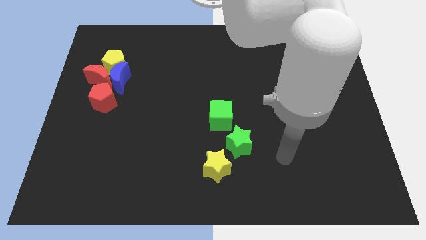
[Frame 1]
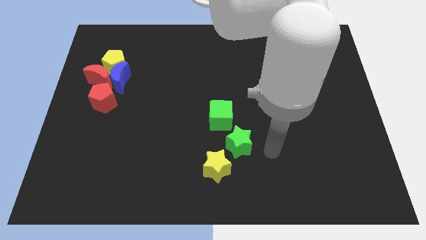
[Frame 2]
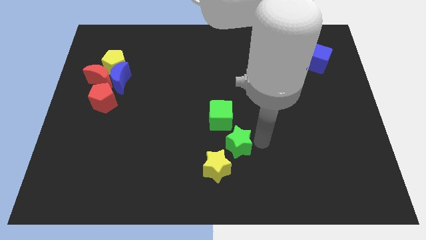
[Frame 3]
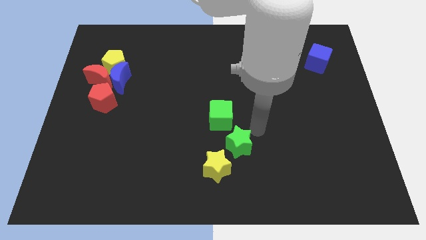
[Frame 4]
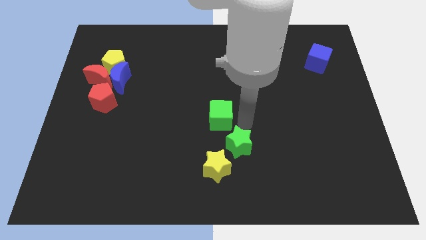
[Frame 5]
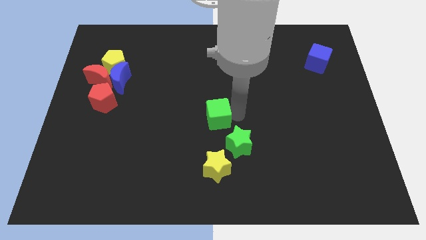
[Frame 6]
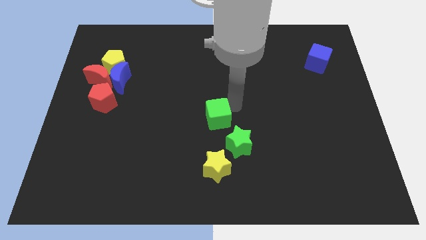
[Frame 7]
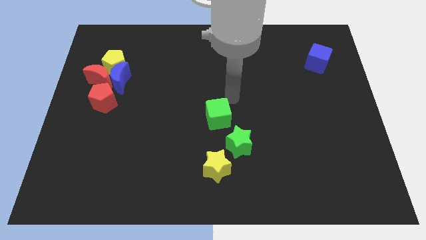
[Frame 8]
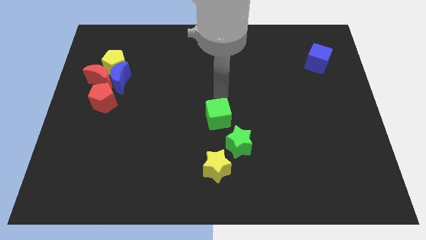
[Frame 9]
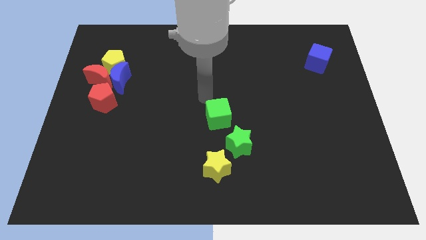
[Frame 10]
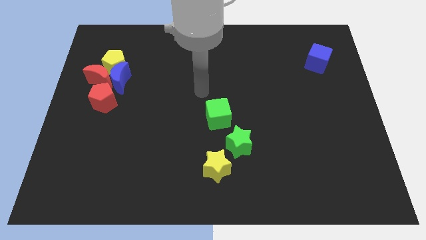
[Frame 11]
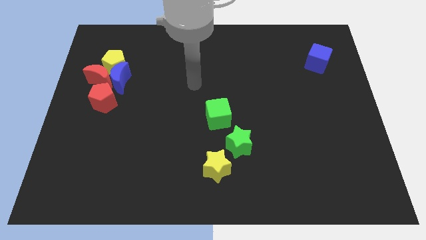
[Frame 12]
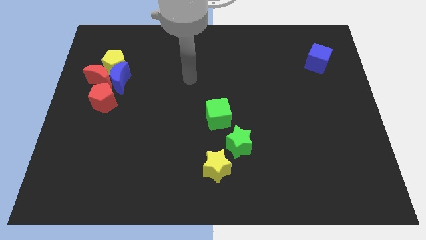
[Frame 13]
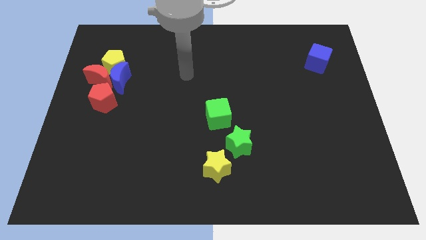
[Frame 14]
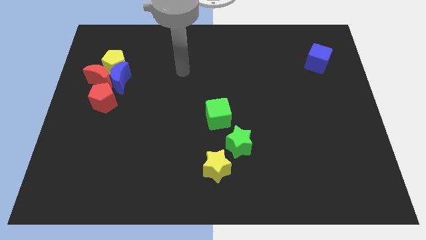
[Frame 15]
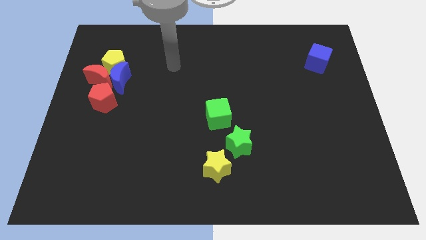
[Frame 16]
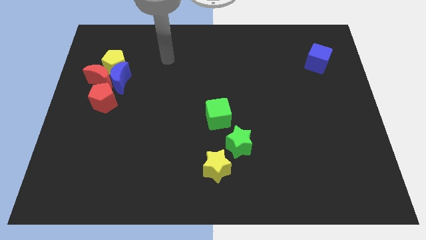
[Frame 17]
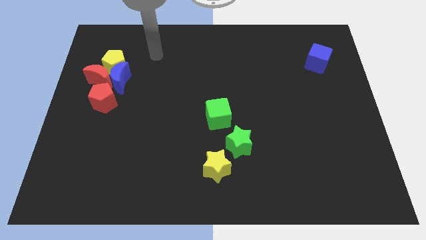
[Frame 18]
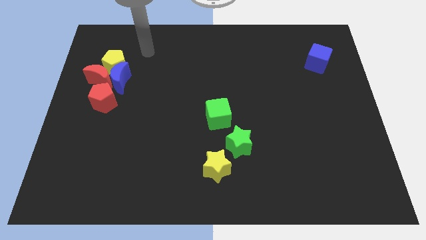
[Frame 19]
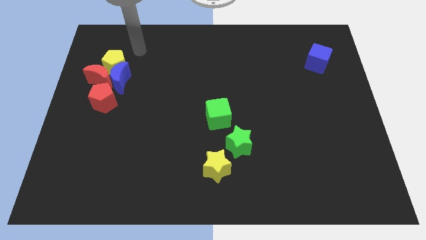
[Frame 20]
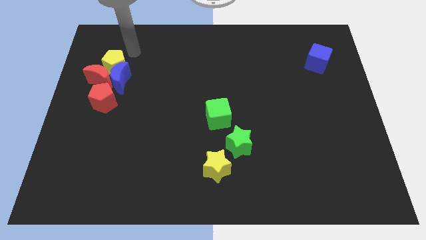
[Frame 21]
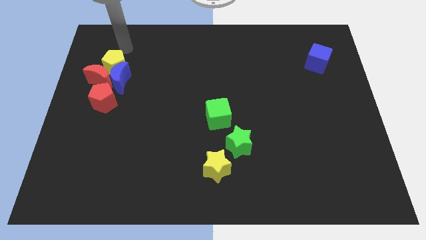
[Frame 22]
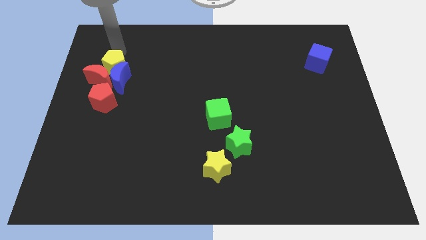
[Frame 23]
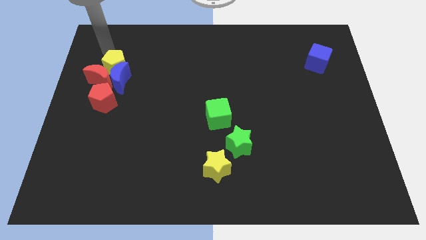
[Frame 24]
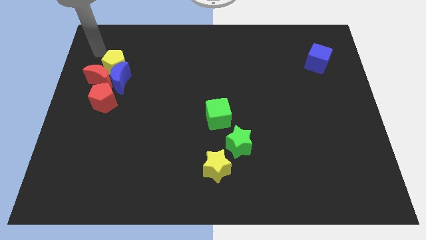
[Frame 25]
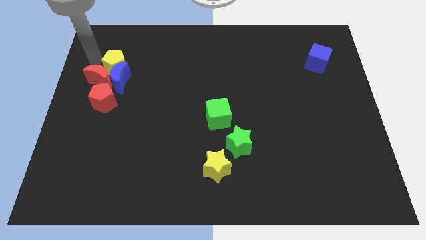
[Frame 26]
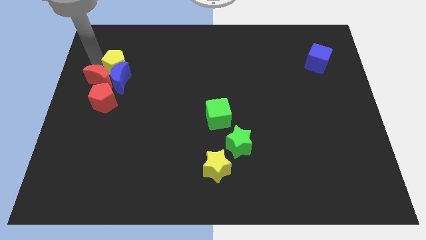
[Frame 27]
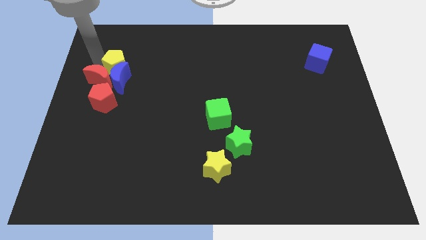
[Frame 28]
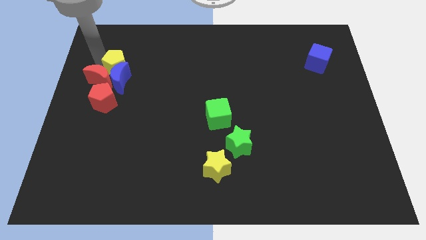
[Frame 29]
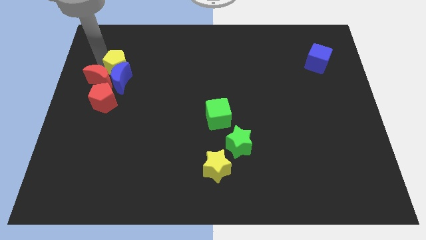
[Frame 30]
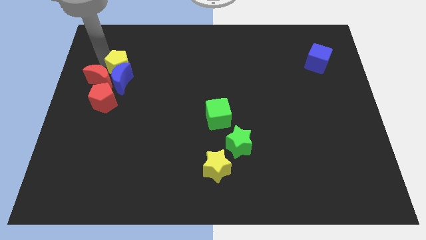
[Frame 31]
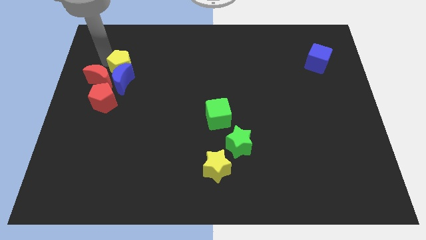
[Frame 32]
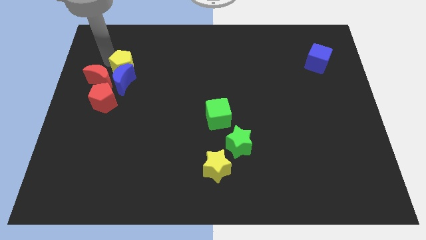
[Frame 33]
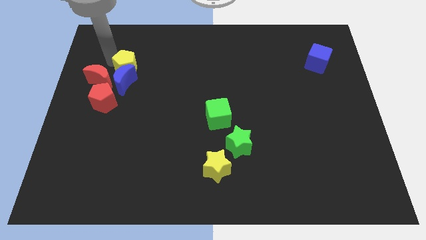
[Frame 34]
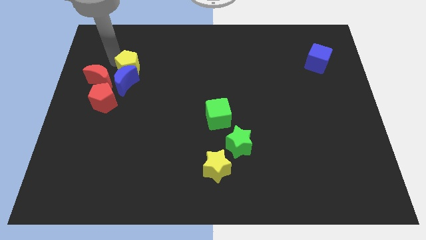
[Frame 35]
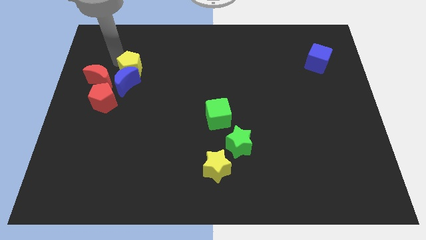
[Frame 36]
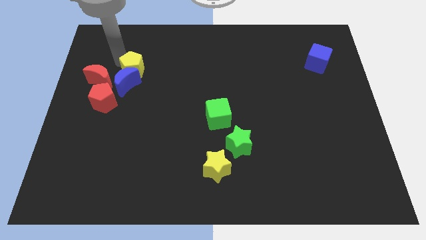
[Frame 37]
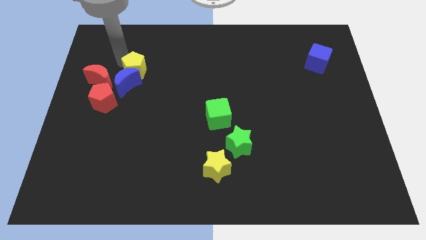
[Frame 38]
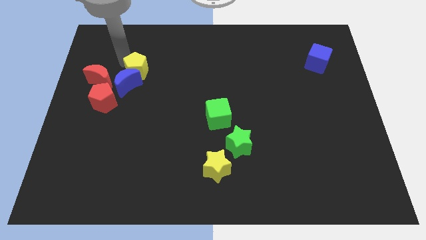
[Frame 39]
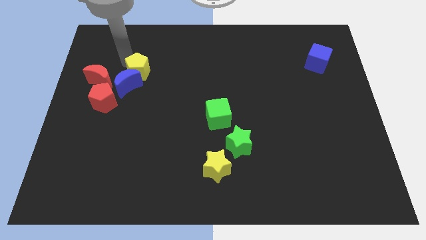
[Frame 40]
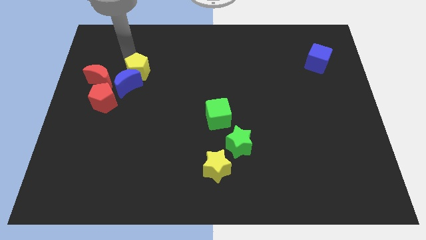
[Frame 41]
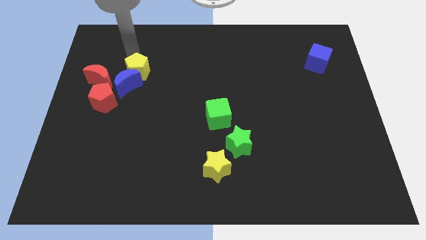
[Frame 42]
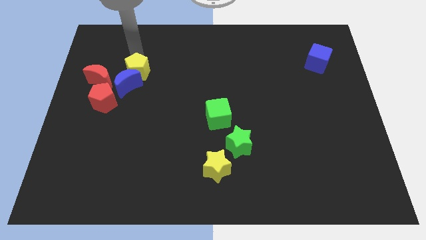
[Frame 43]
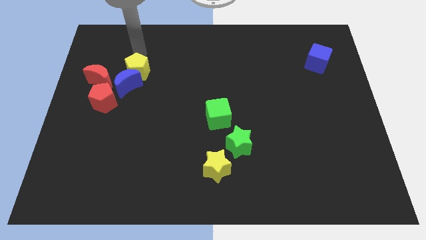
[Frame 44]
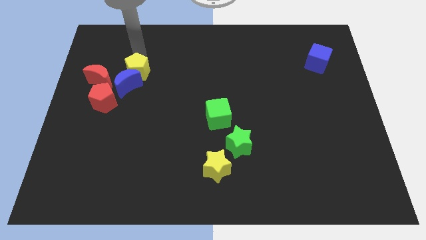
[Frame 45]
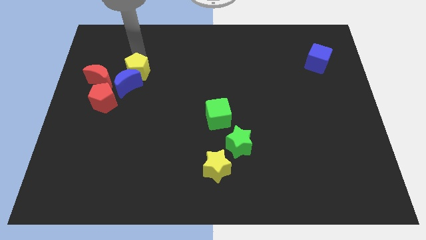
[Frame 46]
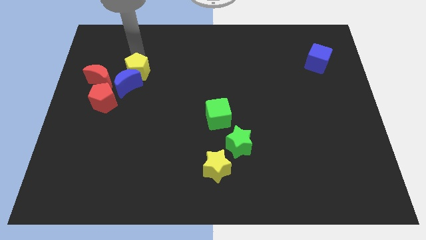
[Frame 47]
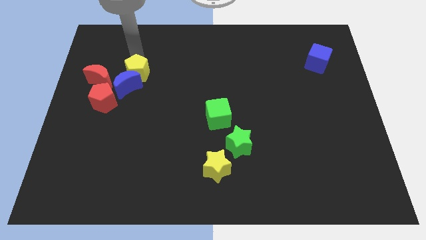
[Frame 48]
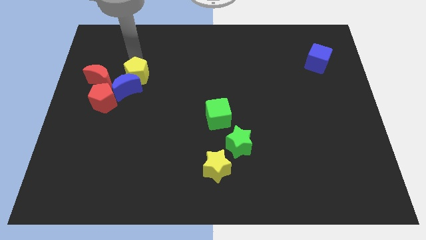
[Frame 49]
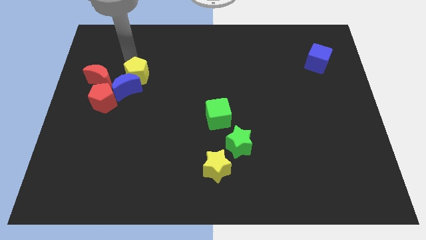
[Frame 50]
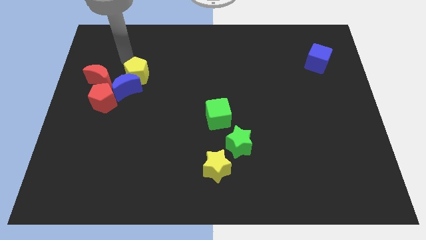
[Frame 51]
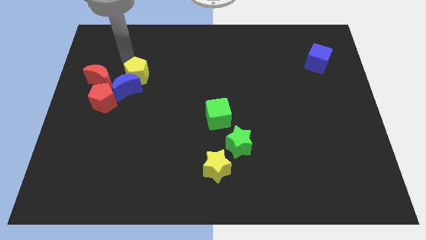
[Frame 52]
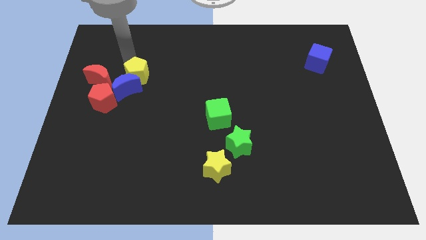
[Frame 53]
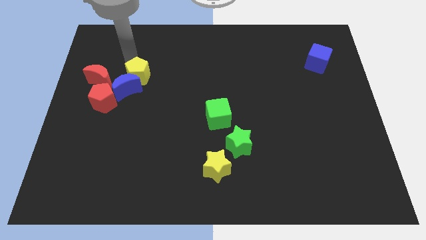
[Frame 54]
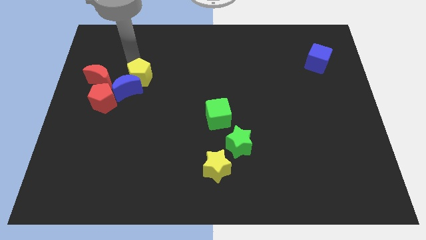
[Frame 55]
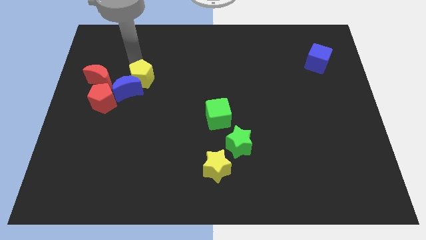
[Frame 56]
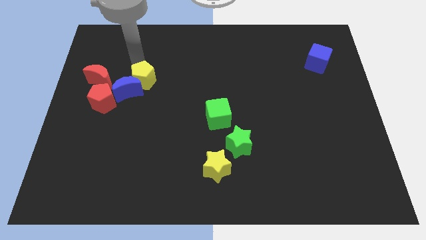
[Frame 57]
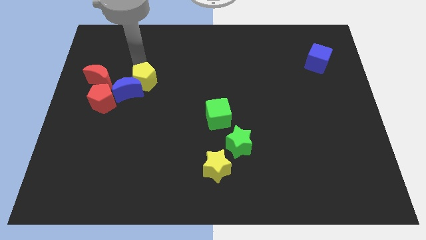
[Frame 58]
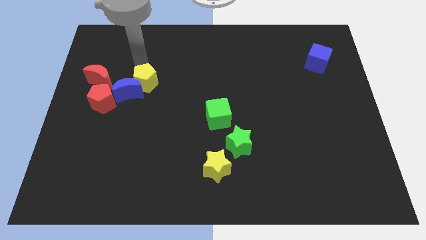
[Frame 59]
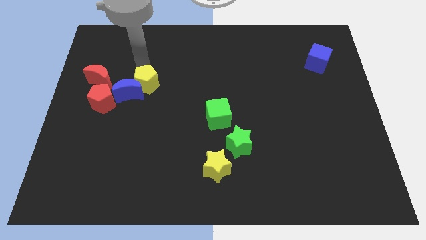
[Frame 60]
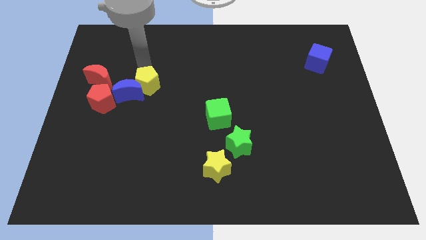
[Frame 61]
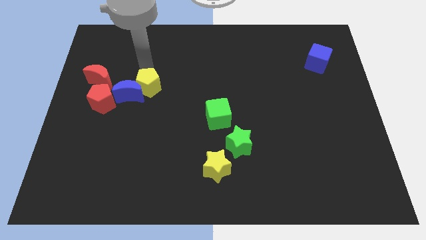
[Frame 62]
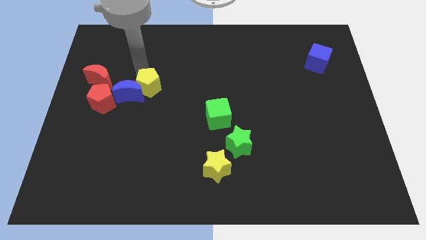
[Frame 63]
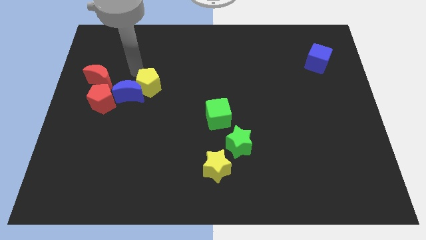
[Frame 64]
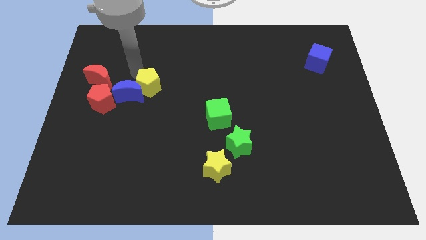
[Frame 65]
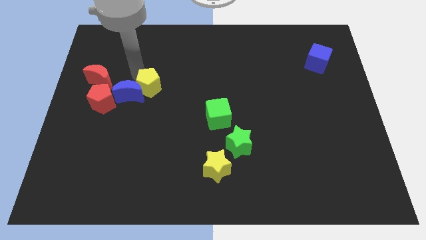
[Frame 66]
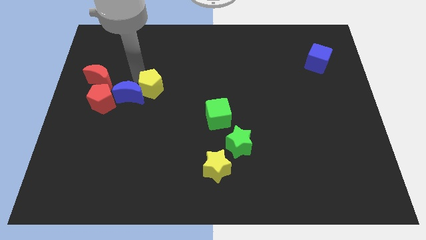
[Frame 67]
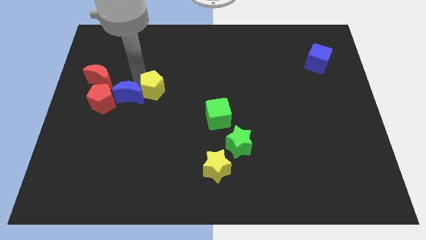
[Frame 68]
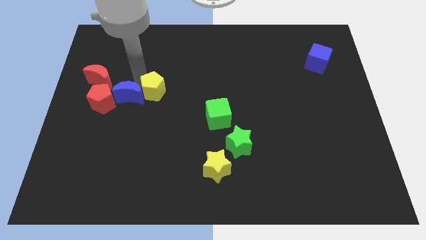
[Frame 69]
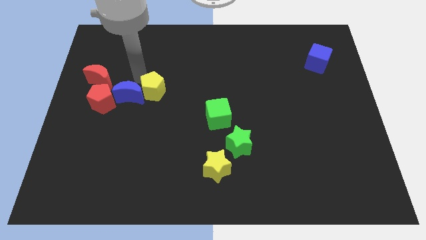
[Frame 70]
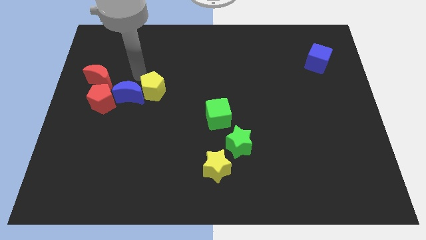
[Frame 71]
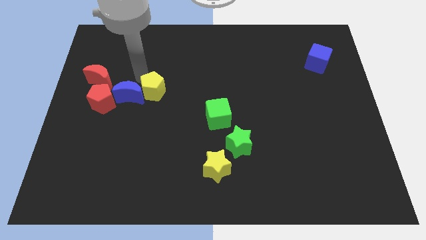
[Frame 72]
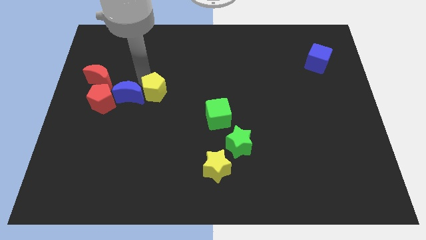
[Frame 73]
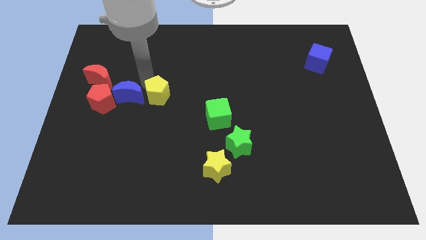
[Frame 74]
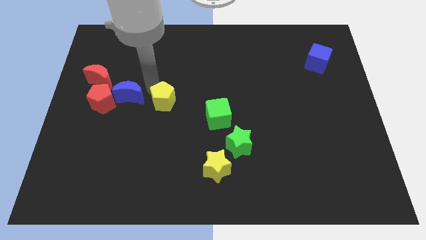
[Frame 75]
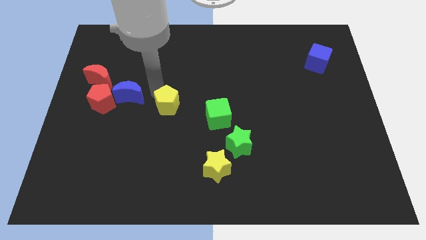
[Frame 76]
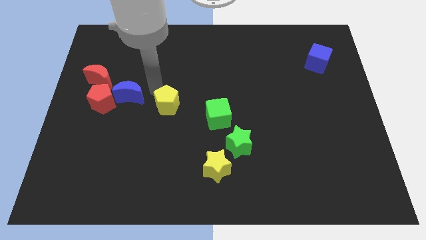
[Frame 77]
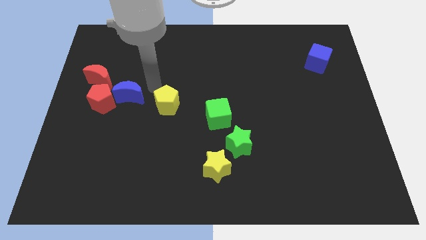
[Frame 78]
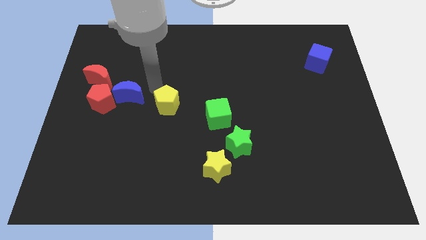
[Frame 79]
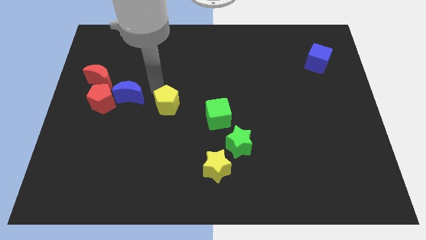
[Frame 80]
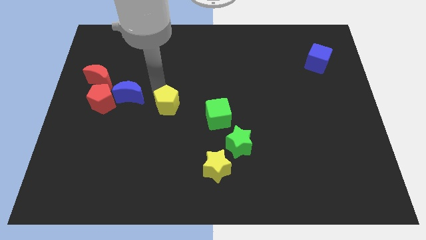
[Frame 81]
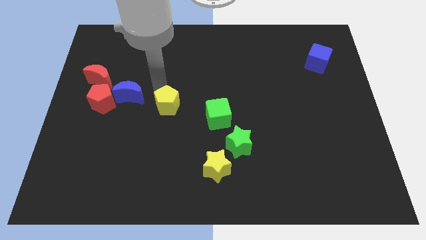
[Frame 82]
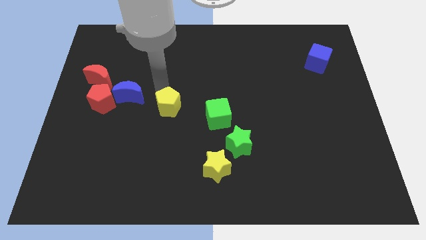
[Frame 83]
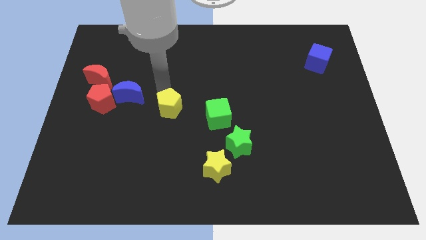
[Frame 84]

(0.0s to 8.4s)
slide the yellow pentagon diagonally down and right
